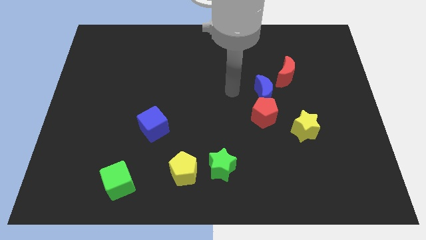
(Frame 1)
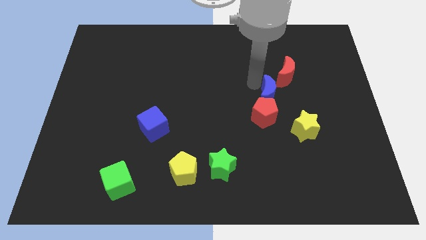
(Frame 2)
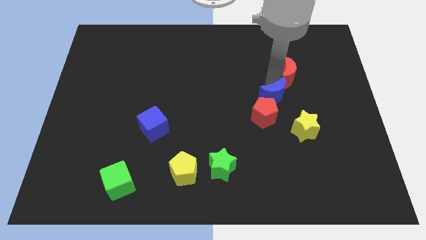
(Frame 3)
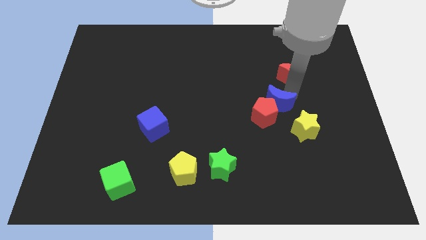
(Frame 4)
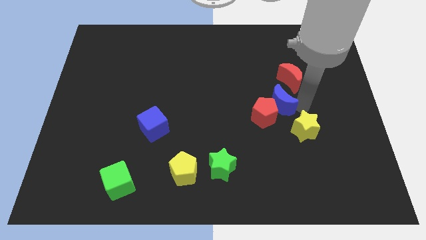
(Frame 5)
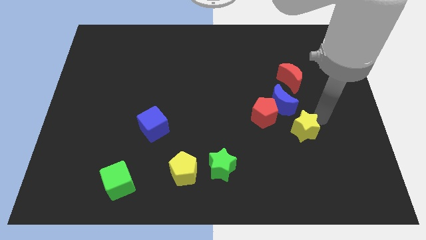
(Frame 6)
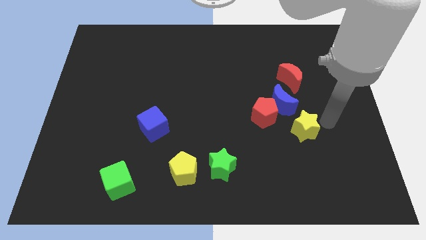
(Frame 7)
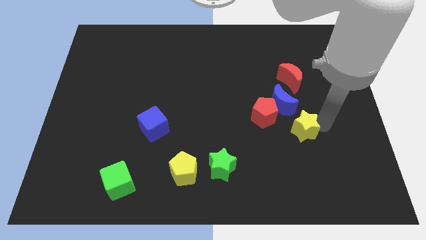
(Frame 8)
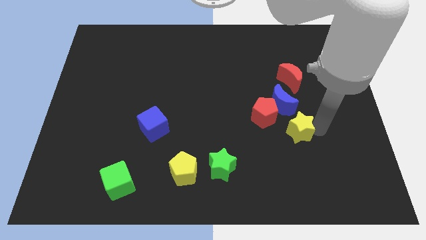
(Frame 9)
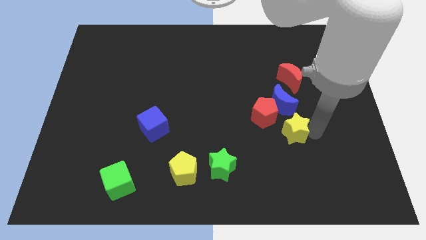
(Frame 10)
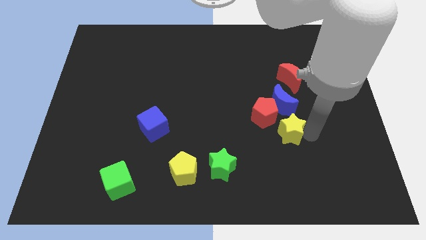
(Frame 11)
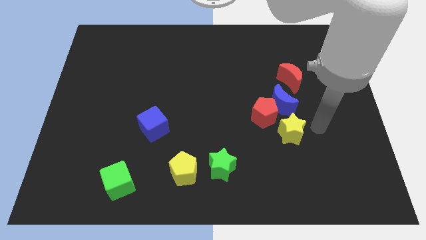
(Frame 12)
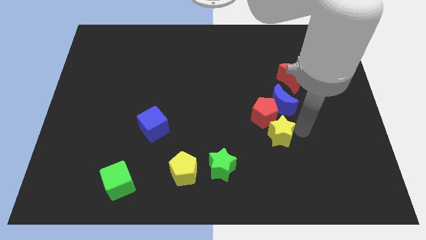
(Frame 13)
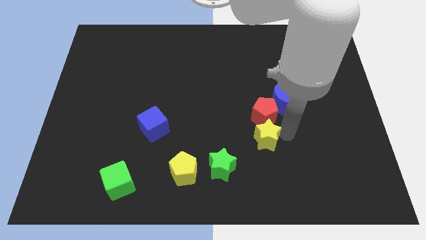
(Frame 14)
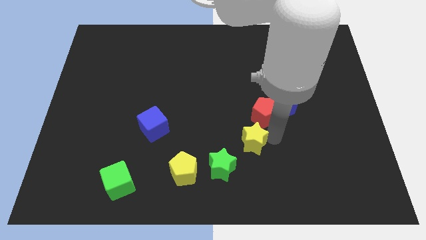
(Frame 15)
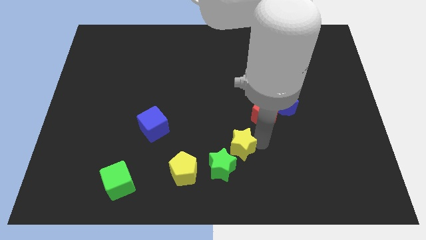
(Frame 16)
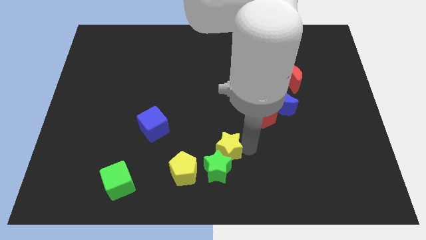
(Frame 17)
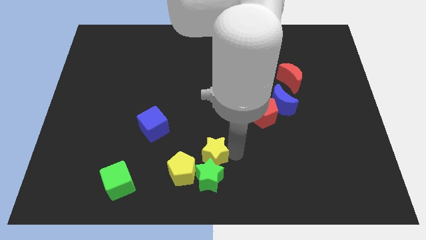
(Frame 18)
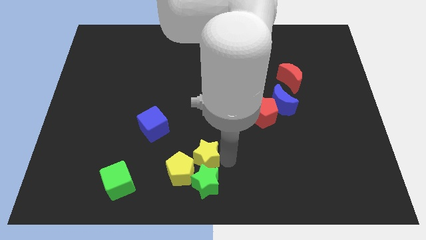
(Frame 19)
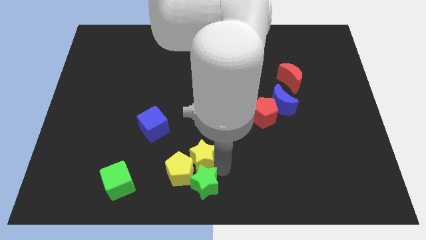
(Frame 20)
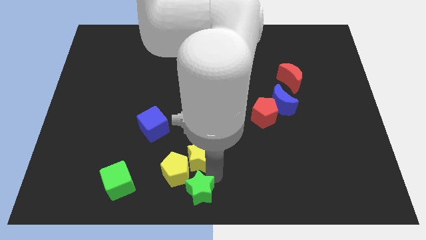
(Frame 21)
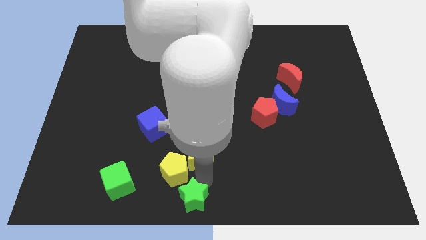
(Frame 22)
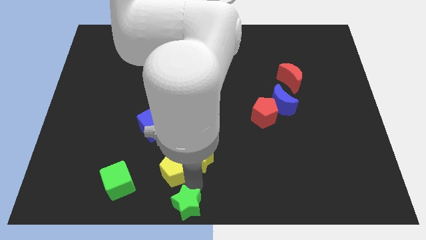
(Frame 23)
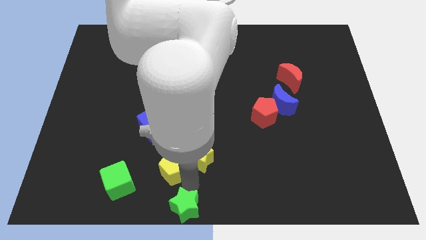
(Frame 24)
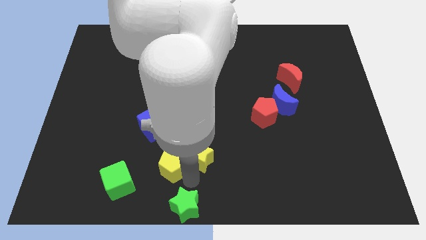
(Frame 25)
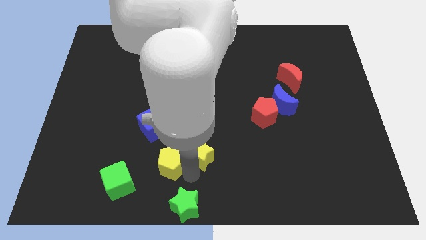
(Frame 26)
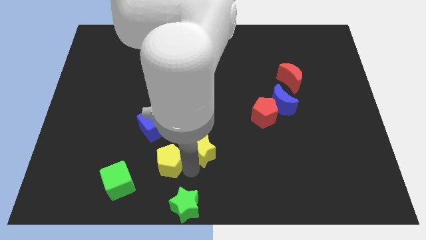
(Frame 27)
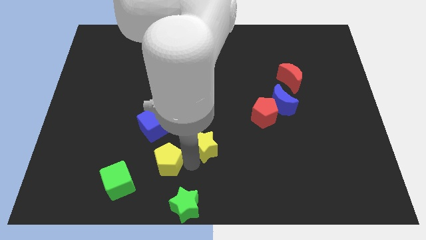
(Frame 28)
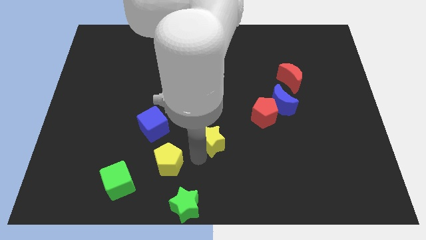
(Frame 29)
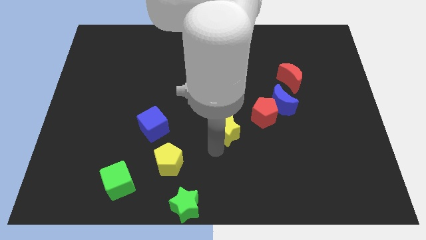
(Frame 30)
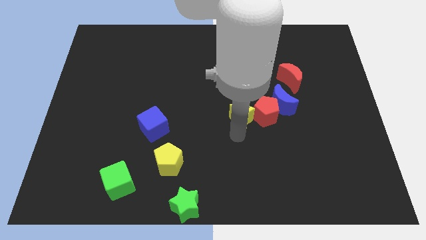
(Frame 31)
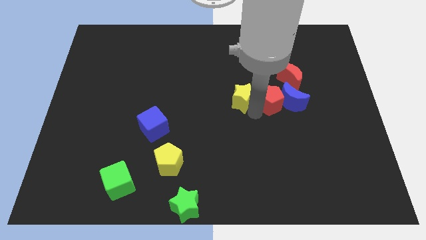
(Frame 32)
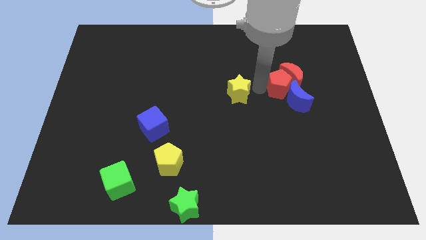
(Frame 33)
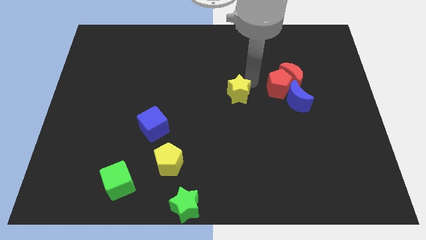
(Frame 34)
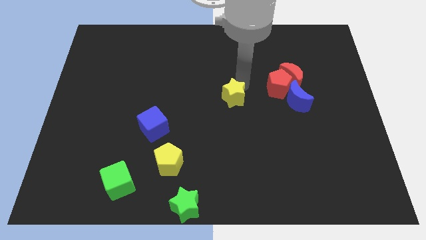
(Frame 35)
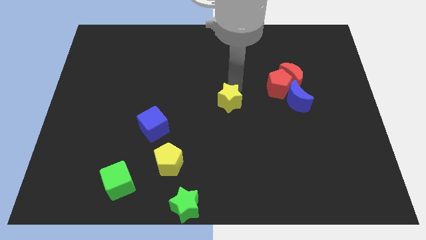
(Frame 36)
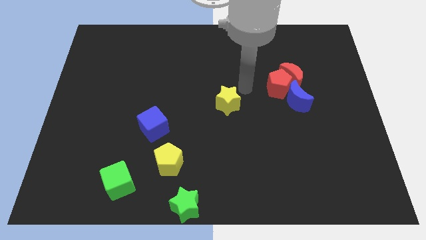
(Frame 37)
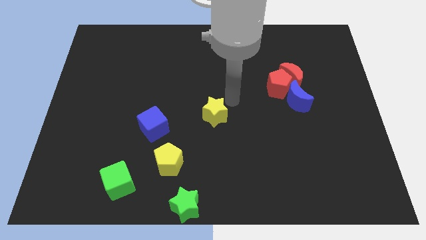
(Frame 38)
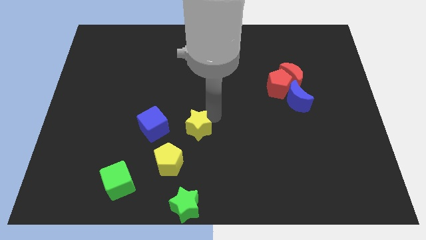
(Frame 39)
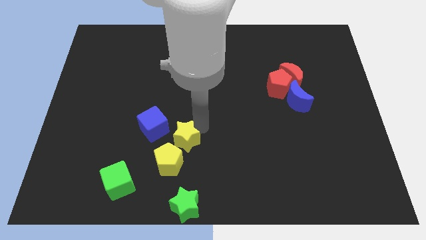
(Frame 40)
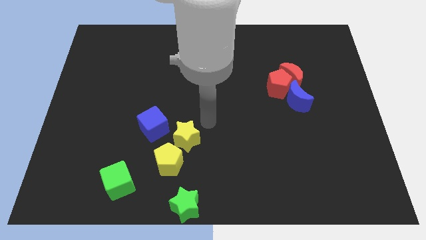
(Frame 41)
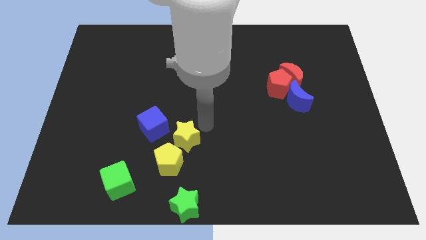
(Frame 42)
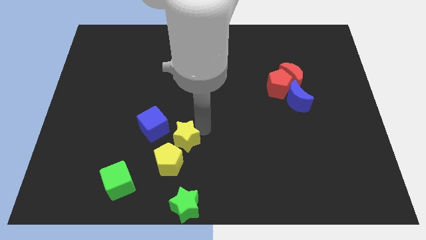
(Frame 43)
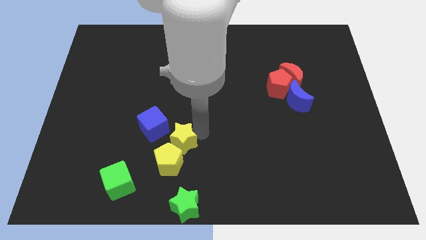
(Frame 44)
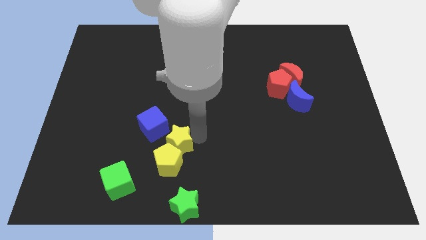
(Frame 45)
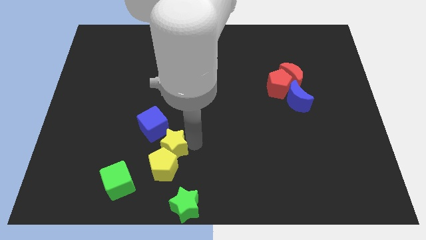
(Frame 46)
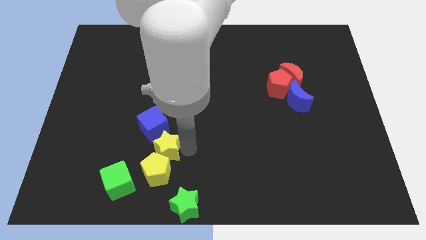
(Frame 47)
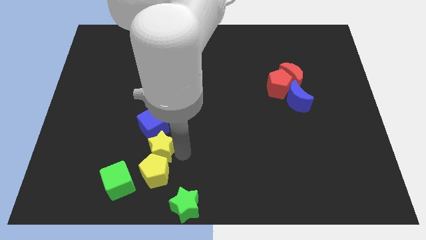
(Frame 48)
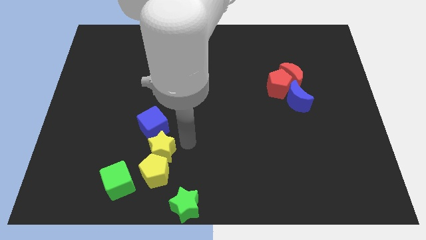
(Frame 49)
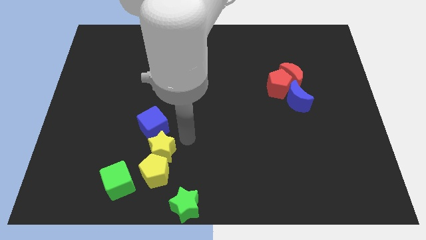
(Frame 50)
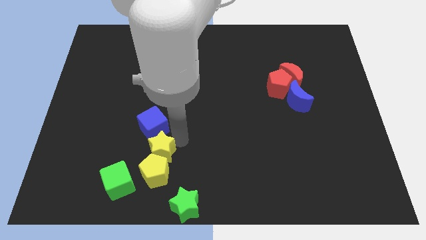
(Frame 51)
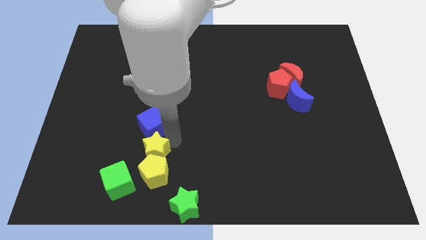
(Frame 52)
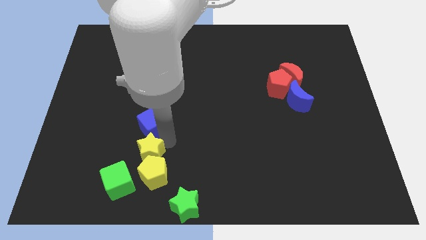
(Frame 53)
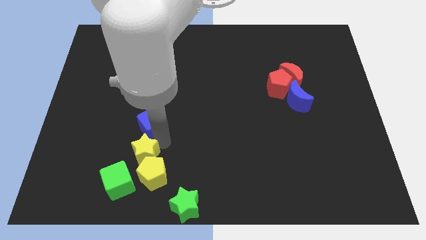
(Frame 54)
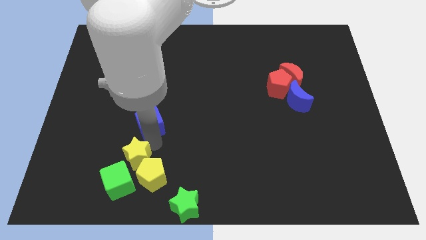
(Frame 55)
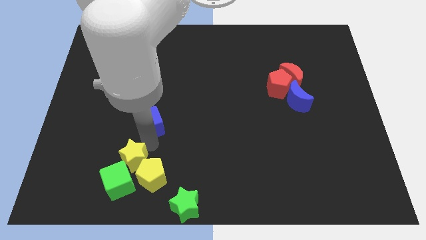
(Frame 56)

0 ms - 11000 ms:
push the yellow star to the green cube

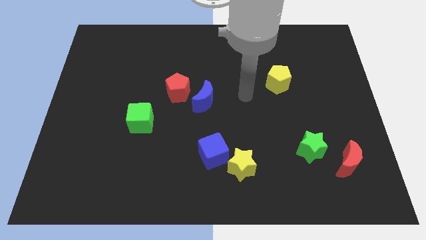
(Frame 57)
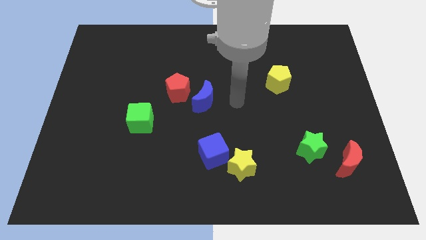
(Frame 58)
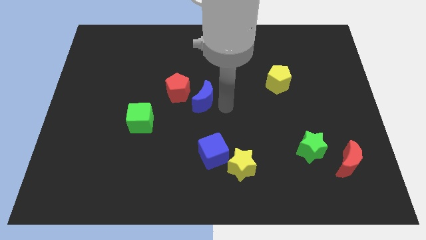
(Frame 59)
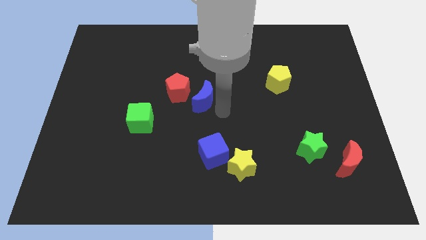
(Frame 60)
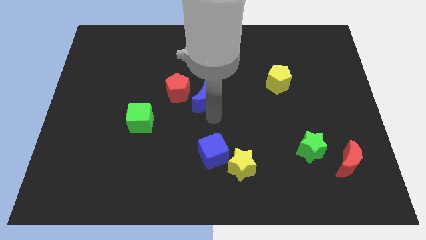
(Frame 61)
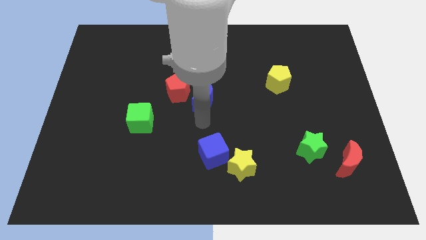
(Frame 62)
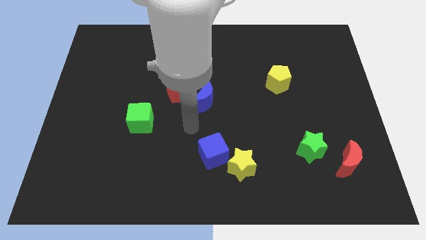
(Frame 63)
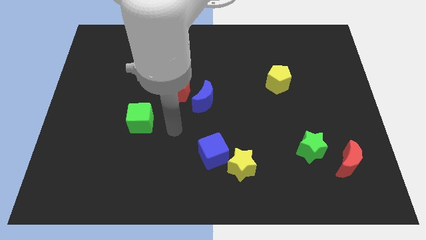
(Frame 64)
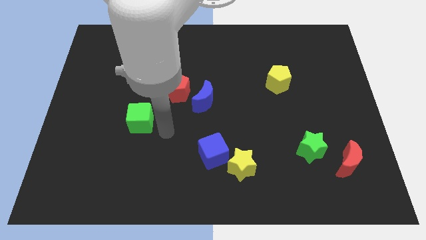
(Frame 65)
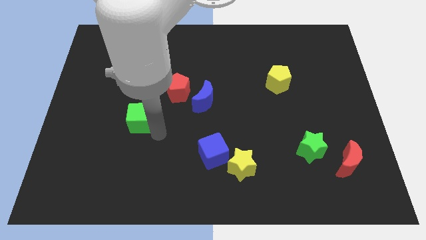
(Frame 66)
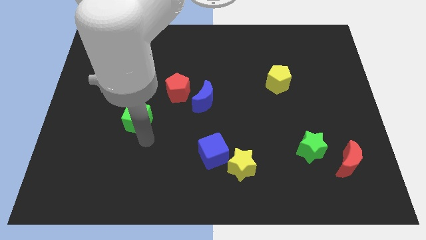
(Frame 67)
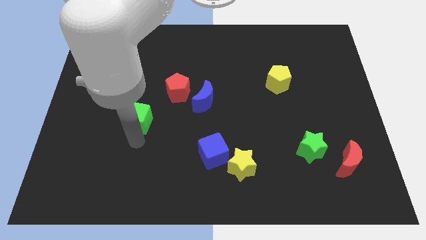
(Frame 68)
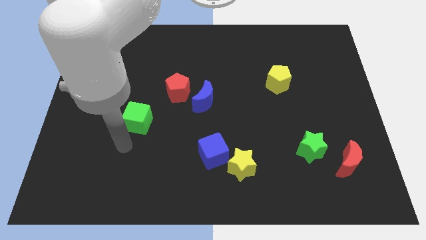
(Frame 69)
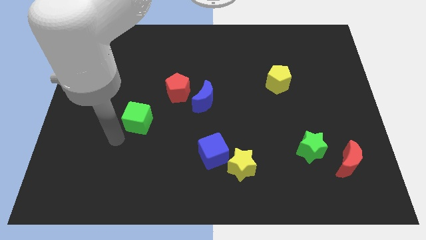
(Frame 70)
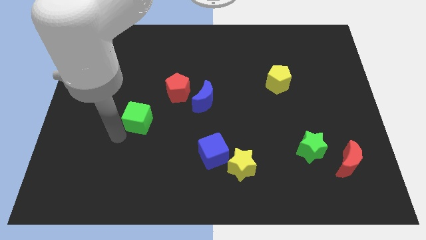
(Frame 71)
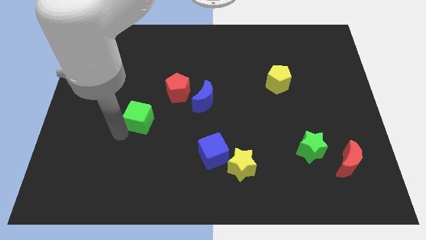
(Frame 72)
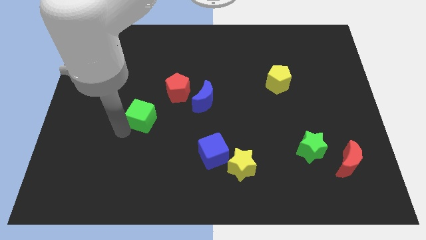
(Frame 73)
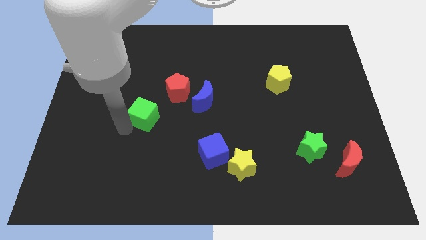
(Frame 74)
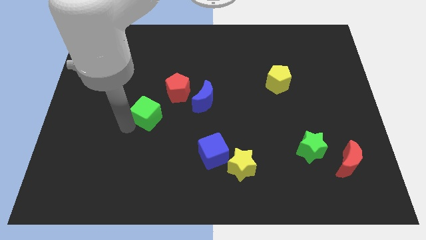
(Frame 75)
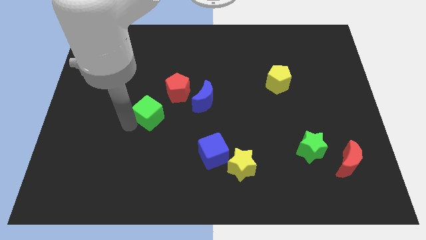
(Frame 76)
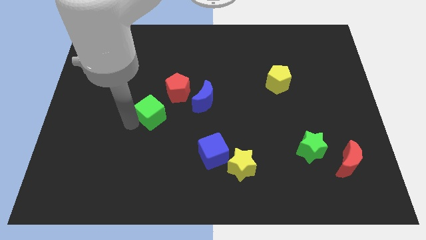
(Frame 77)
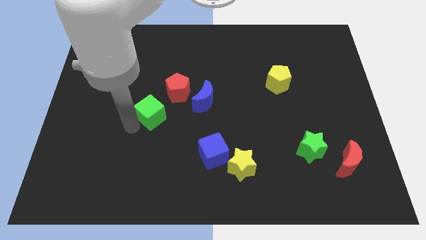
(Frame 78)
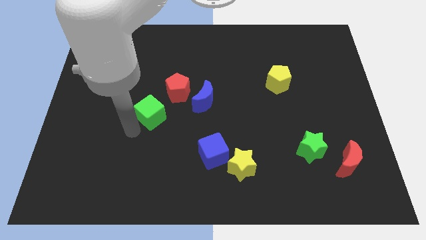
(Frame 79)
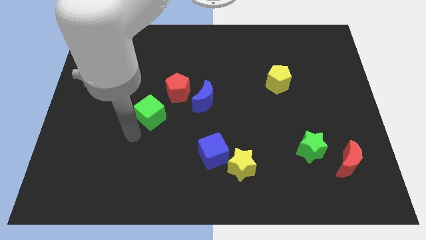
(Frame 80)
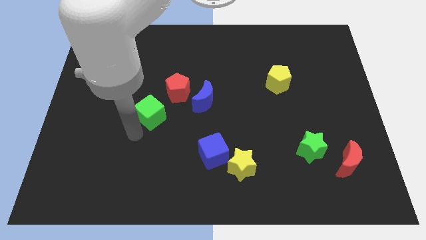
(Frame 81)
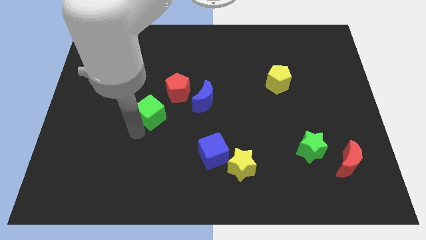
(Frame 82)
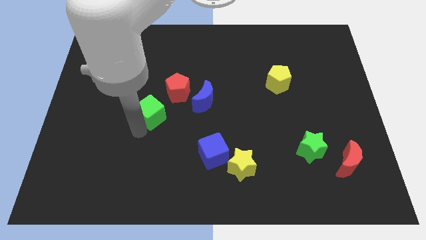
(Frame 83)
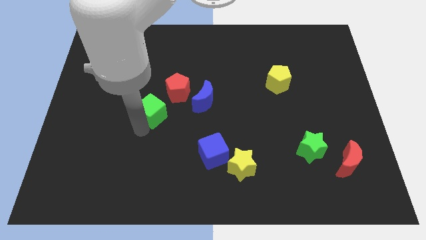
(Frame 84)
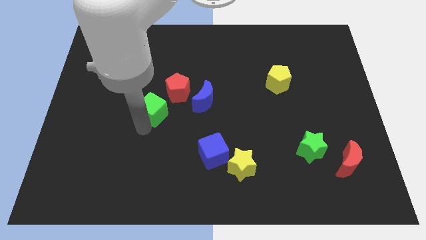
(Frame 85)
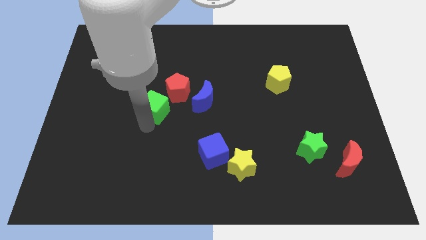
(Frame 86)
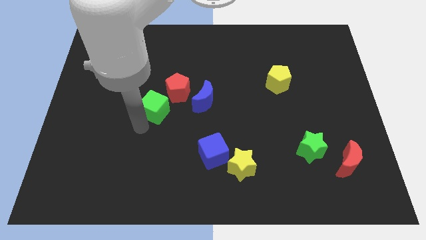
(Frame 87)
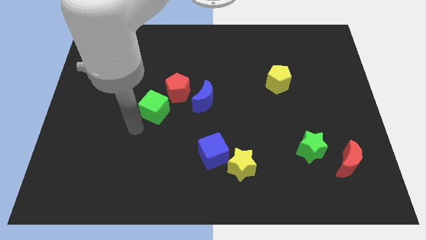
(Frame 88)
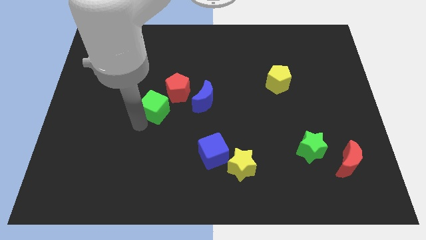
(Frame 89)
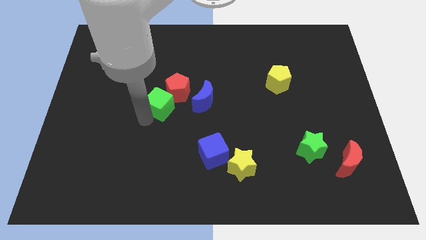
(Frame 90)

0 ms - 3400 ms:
put the green cube towards the red pentagon
